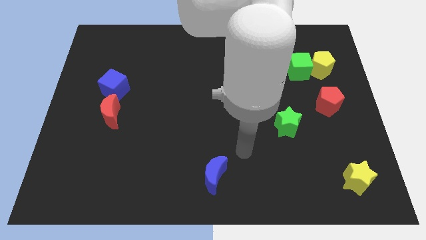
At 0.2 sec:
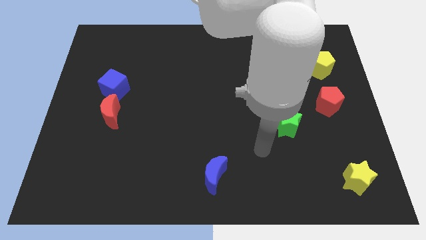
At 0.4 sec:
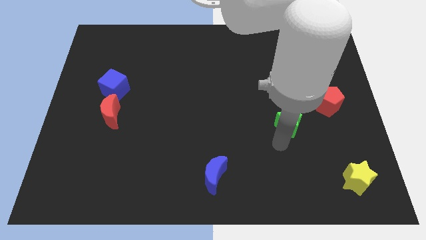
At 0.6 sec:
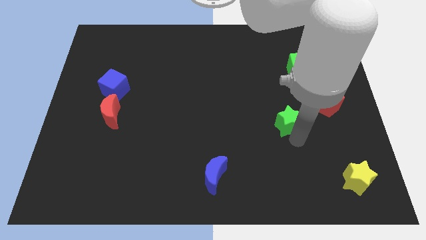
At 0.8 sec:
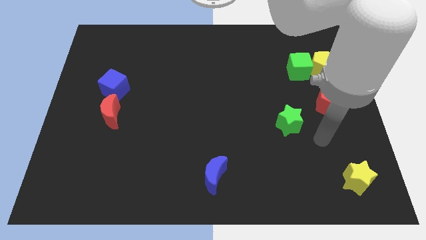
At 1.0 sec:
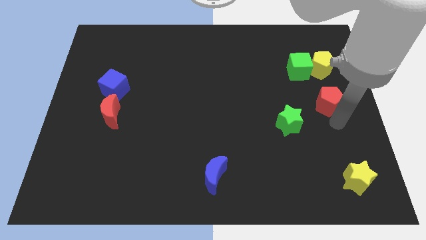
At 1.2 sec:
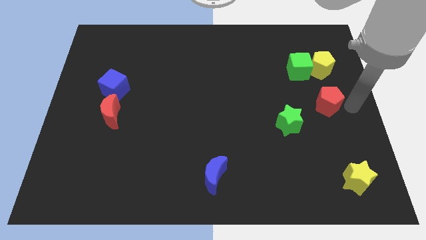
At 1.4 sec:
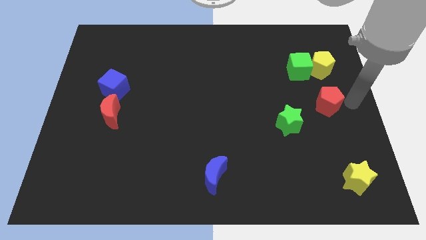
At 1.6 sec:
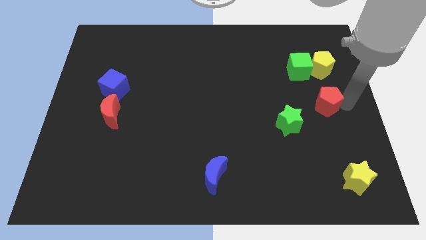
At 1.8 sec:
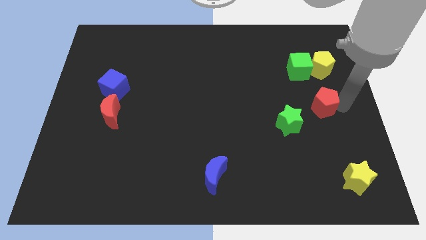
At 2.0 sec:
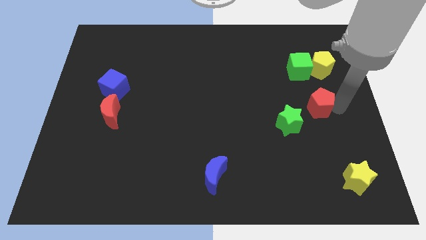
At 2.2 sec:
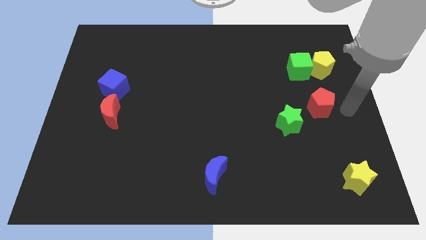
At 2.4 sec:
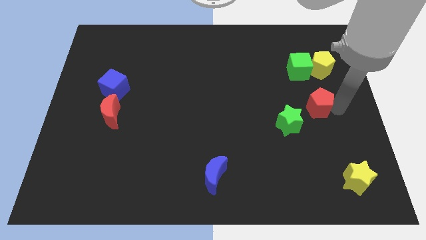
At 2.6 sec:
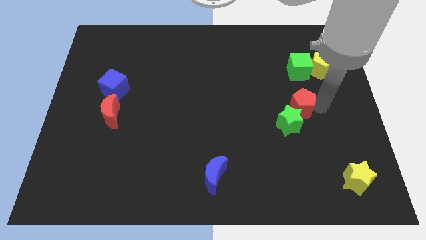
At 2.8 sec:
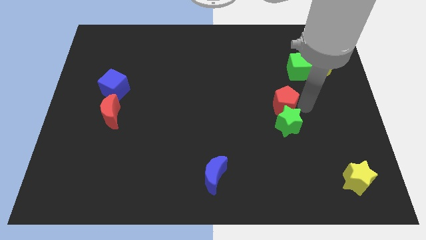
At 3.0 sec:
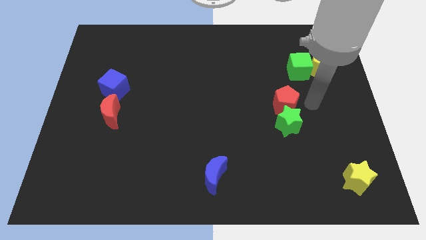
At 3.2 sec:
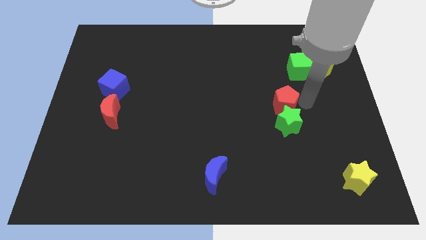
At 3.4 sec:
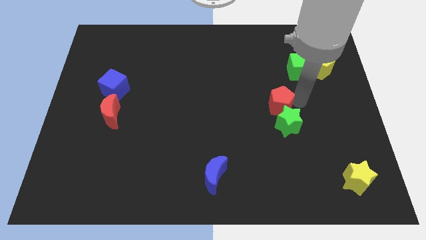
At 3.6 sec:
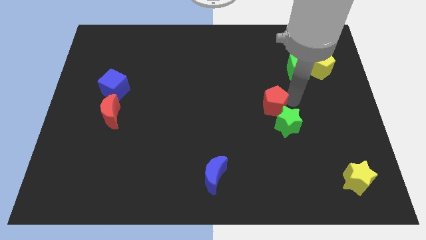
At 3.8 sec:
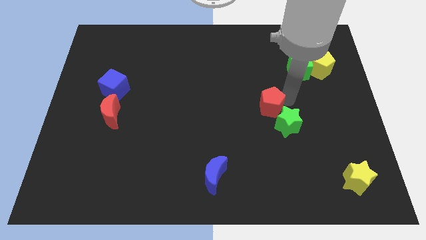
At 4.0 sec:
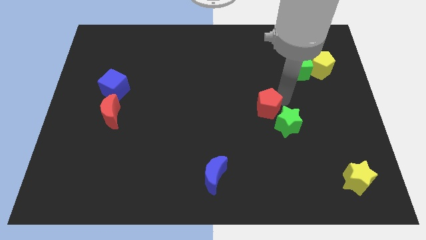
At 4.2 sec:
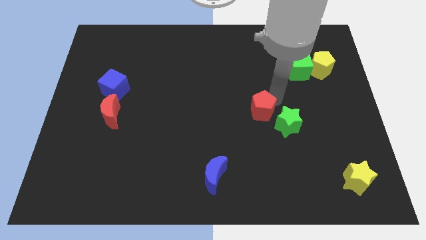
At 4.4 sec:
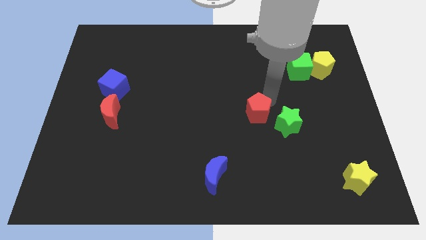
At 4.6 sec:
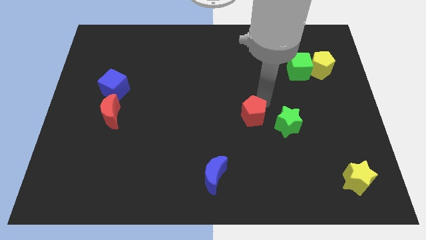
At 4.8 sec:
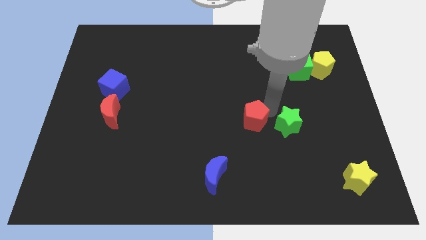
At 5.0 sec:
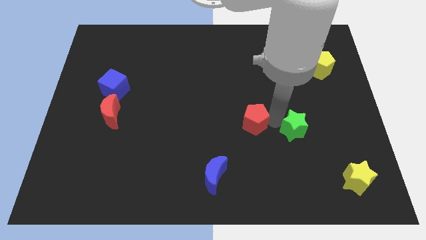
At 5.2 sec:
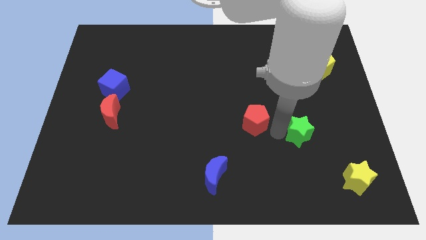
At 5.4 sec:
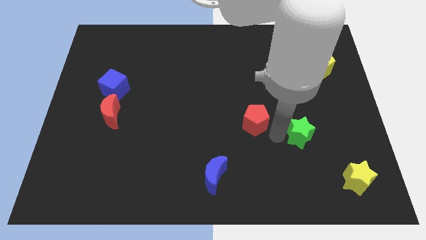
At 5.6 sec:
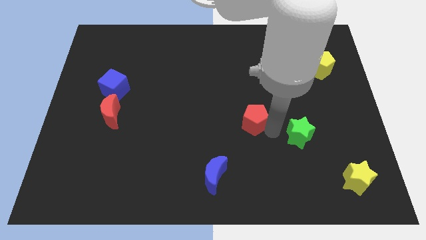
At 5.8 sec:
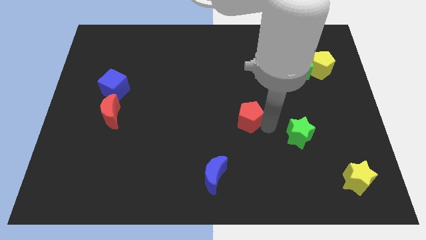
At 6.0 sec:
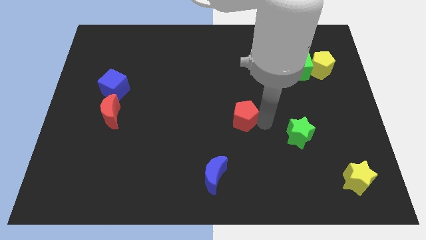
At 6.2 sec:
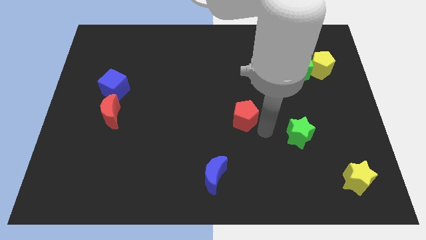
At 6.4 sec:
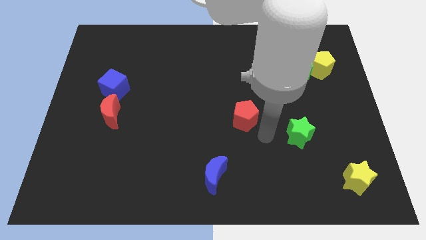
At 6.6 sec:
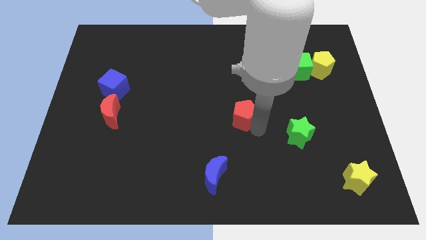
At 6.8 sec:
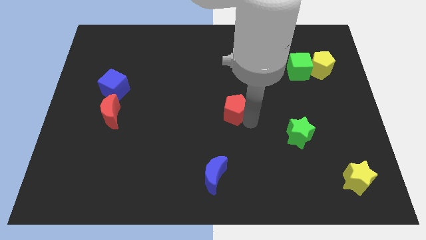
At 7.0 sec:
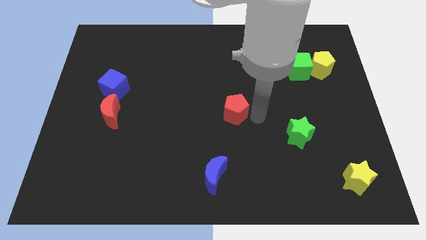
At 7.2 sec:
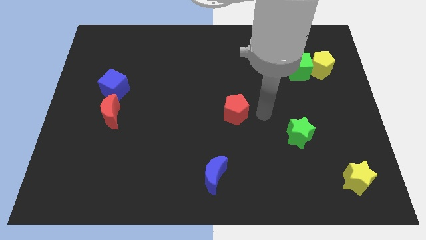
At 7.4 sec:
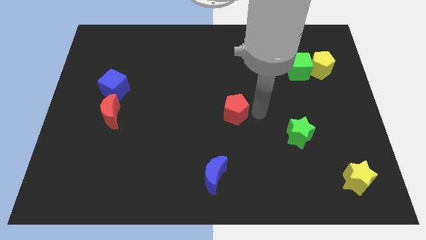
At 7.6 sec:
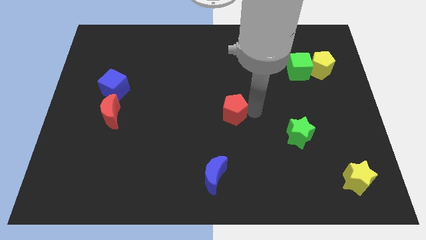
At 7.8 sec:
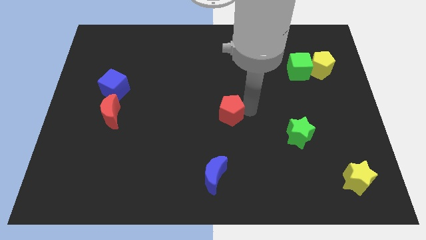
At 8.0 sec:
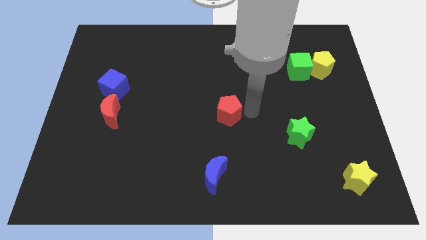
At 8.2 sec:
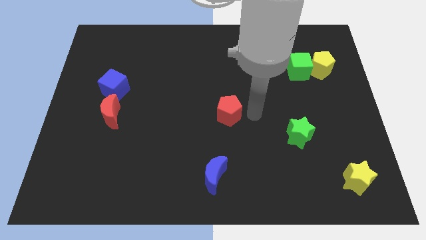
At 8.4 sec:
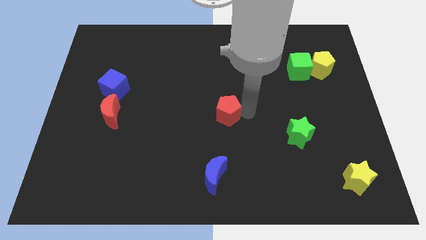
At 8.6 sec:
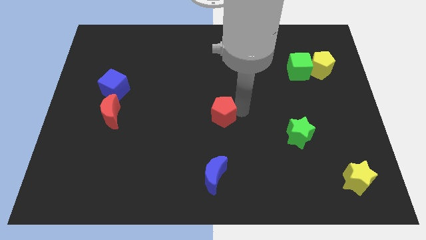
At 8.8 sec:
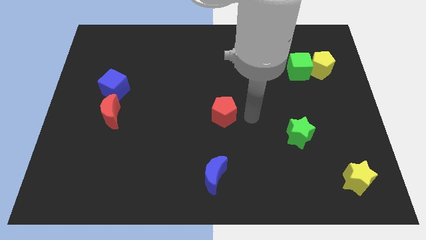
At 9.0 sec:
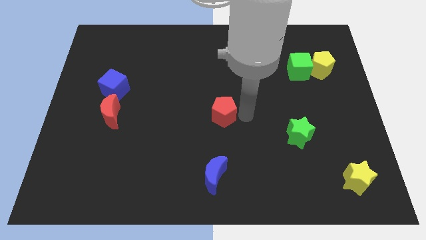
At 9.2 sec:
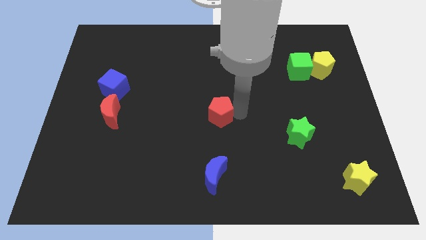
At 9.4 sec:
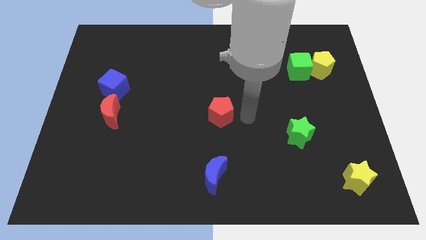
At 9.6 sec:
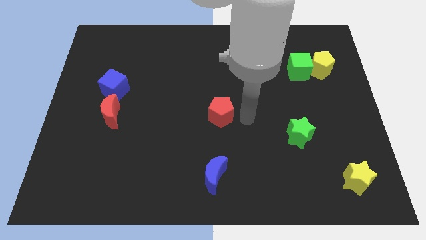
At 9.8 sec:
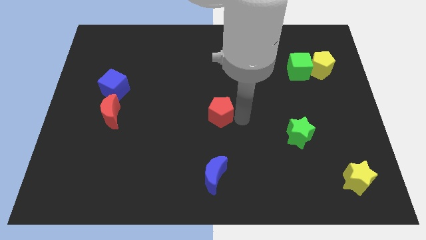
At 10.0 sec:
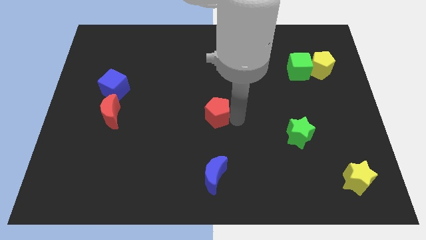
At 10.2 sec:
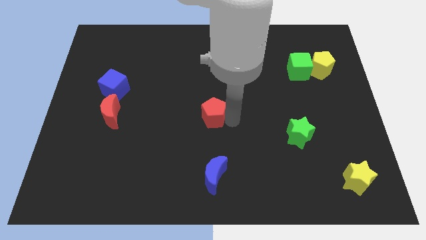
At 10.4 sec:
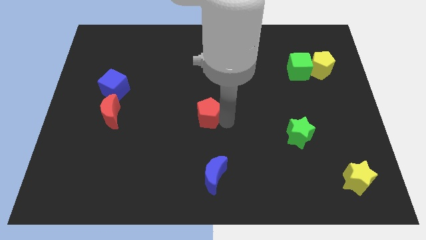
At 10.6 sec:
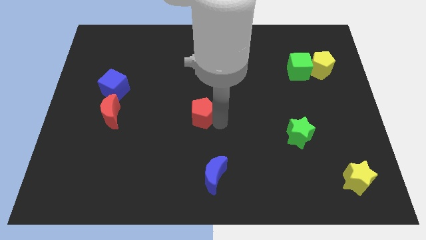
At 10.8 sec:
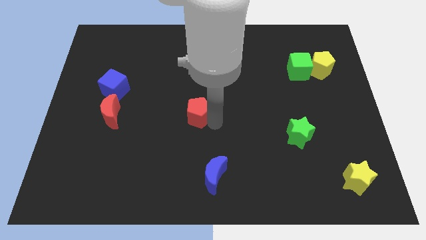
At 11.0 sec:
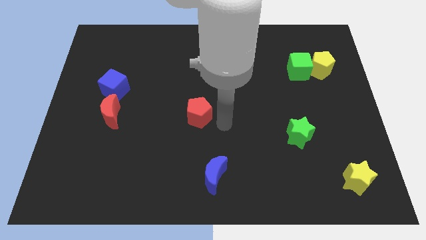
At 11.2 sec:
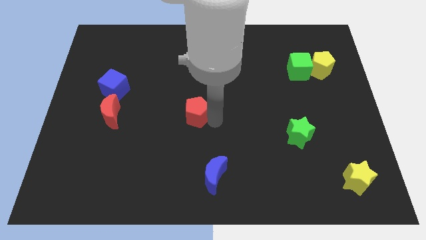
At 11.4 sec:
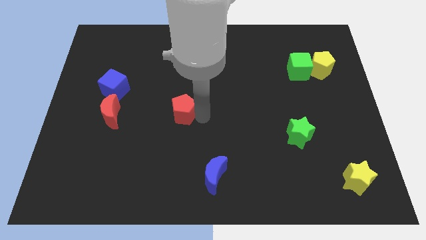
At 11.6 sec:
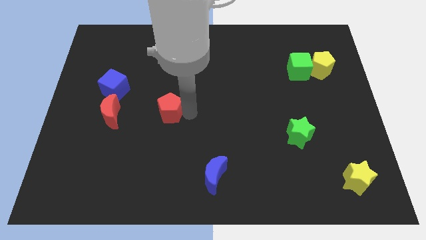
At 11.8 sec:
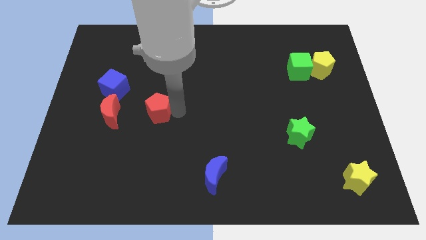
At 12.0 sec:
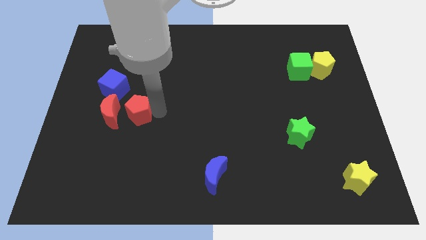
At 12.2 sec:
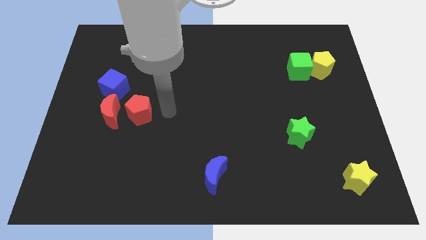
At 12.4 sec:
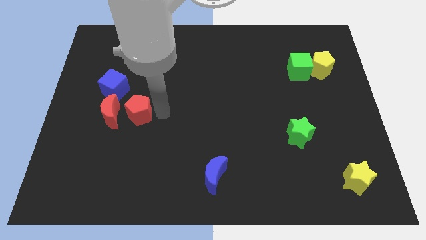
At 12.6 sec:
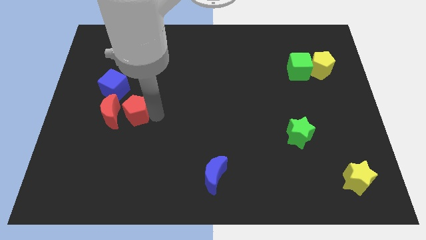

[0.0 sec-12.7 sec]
move the red pentagon next to the red moon
